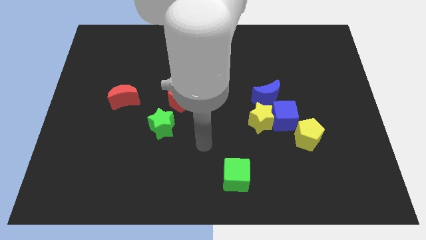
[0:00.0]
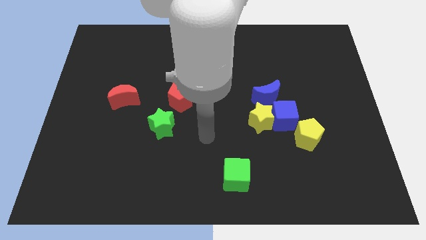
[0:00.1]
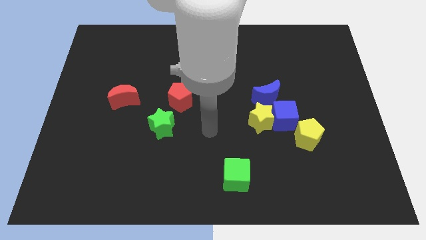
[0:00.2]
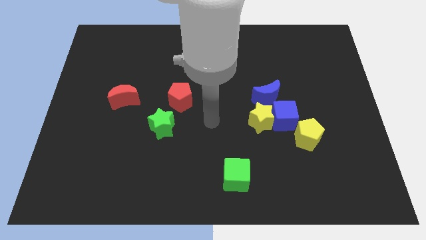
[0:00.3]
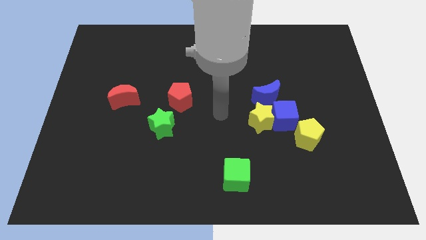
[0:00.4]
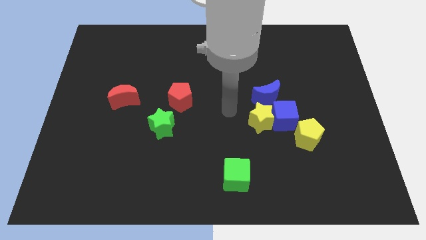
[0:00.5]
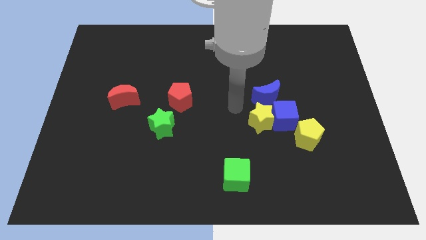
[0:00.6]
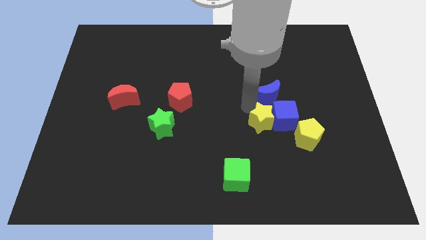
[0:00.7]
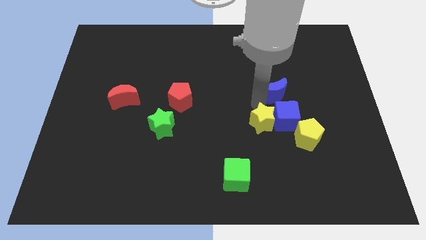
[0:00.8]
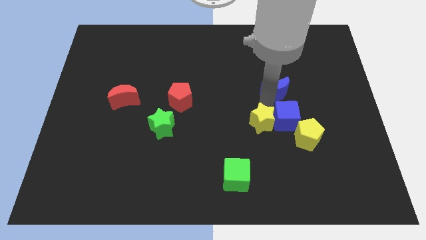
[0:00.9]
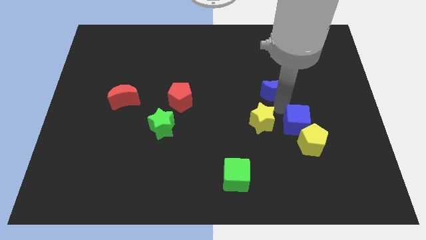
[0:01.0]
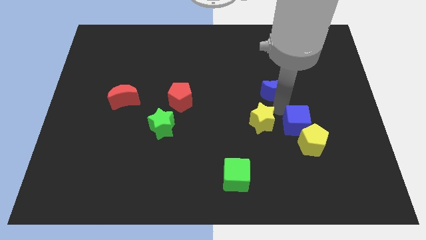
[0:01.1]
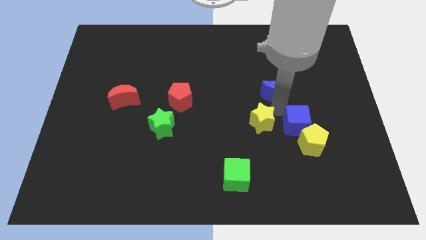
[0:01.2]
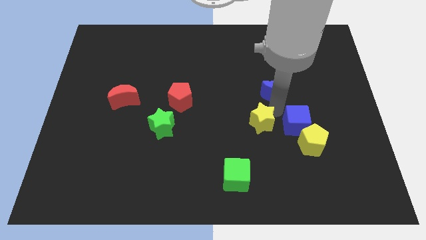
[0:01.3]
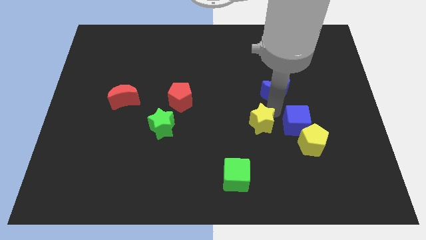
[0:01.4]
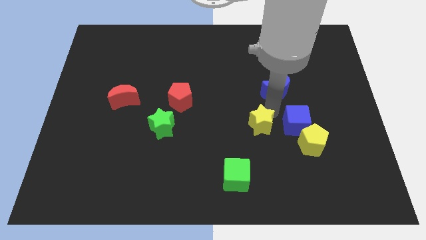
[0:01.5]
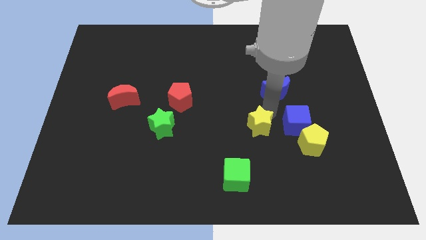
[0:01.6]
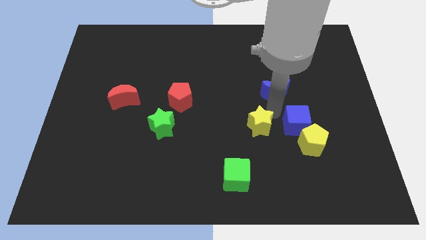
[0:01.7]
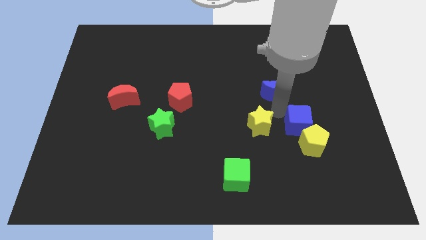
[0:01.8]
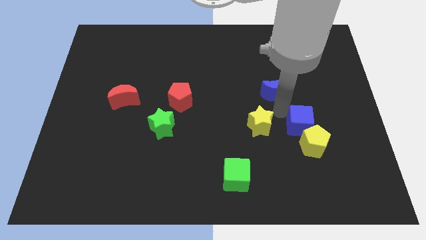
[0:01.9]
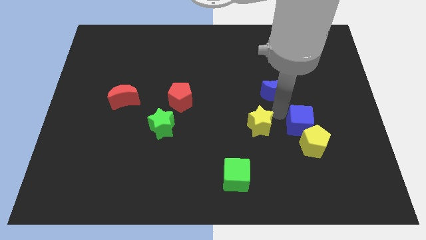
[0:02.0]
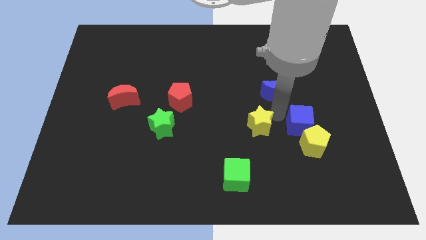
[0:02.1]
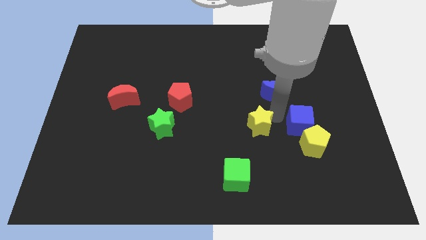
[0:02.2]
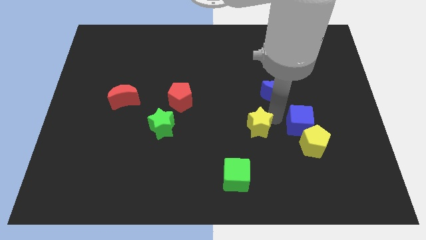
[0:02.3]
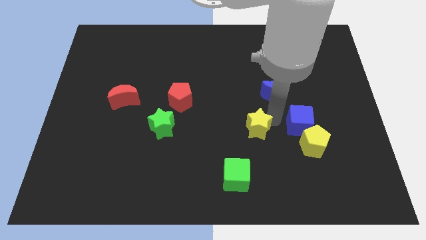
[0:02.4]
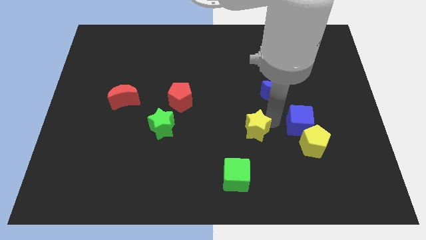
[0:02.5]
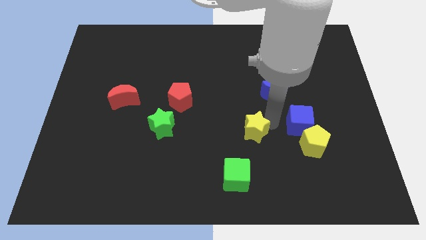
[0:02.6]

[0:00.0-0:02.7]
pull the yellow star apart from the blue cube and blue moon

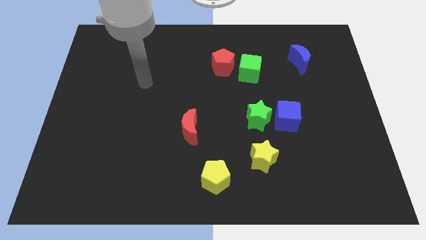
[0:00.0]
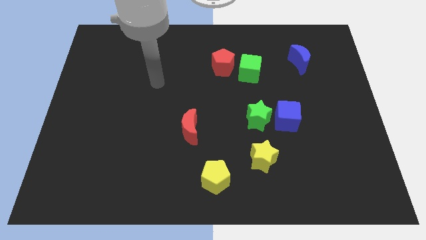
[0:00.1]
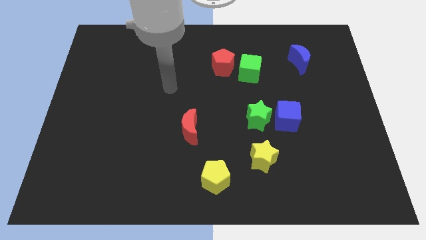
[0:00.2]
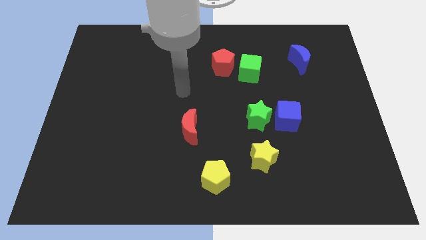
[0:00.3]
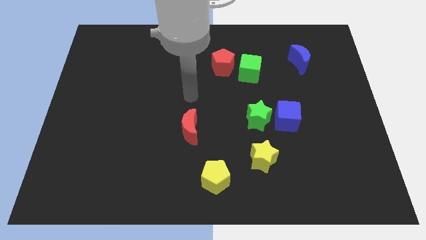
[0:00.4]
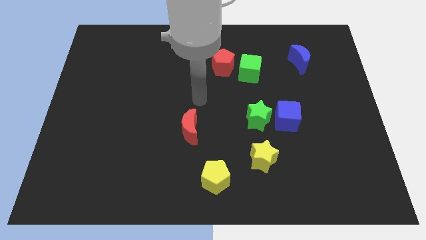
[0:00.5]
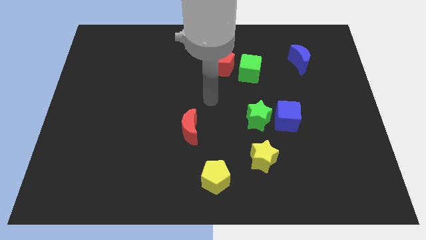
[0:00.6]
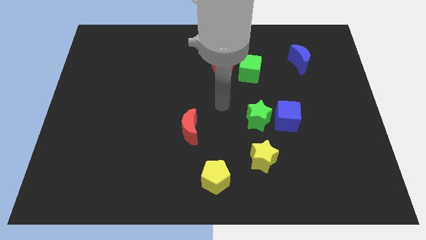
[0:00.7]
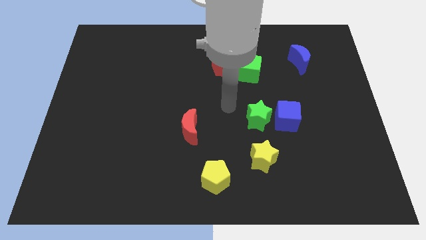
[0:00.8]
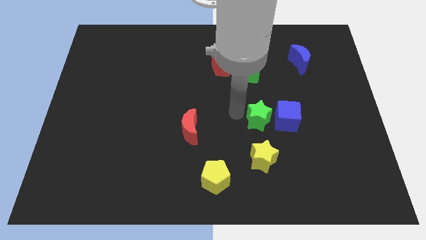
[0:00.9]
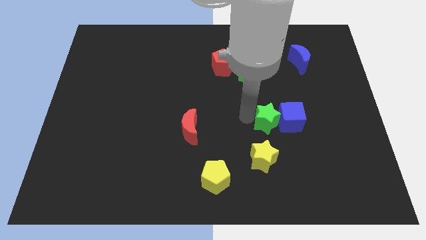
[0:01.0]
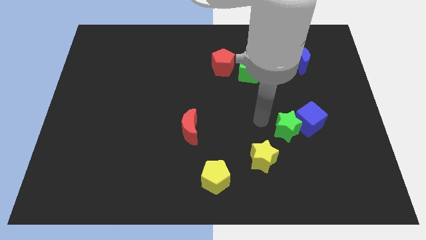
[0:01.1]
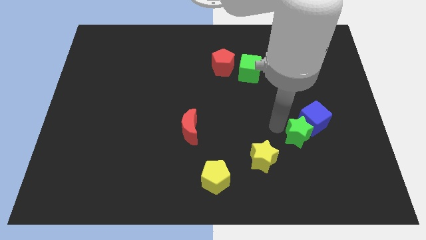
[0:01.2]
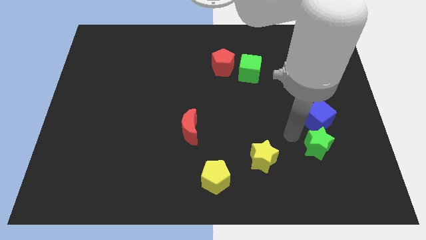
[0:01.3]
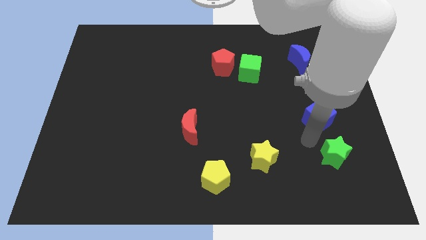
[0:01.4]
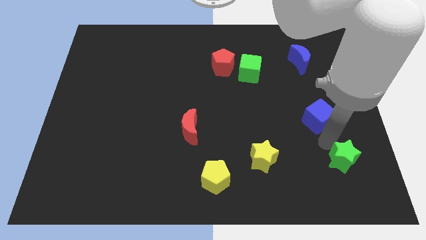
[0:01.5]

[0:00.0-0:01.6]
separate the blue cube from the green star

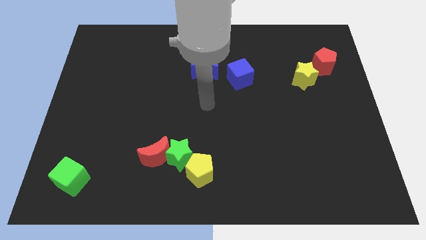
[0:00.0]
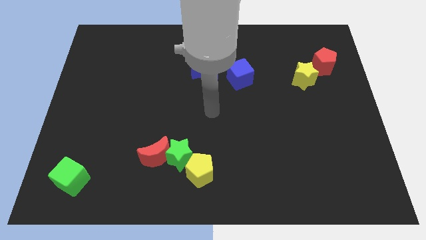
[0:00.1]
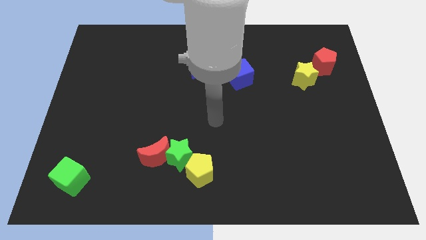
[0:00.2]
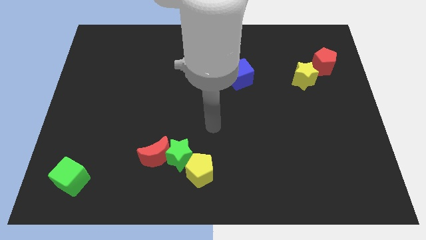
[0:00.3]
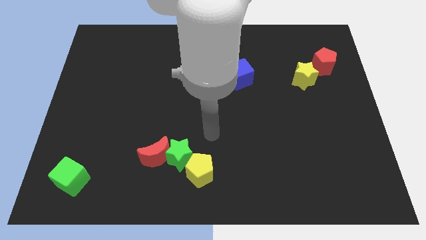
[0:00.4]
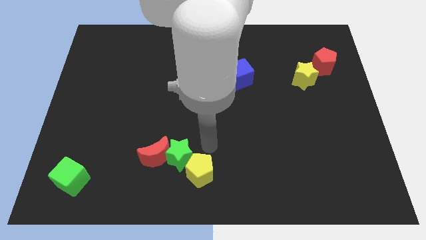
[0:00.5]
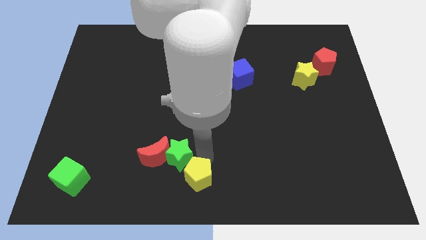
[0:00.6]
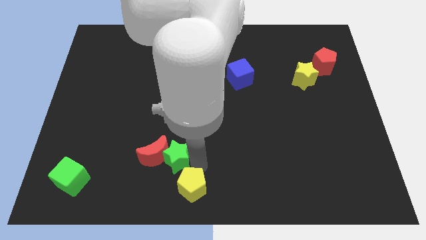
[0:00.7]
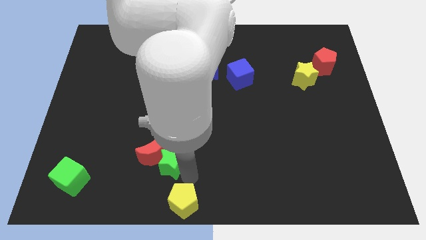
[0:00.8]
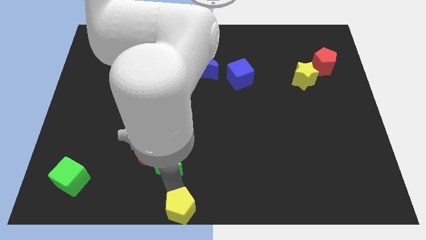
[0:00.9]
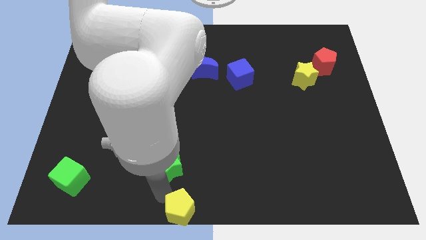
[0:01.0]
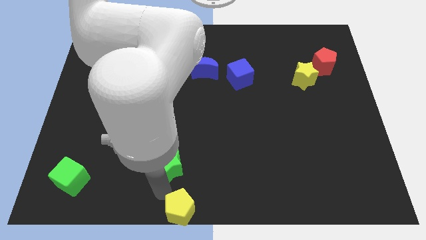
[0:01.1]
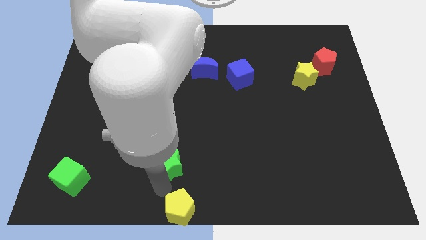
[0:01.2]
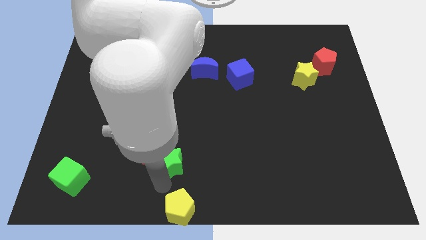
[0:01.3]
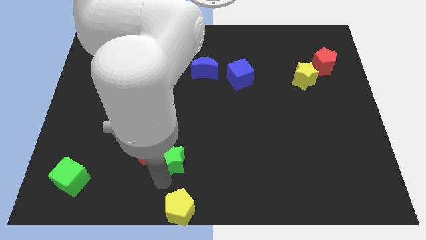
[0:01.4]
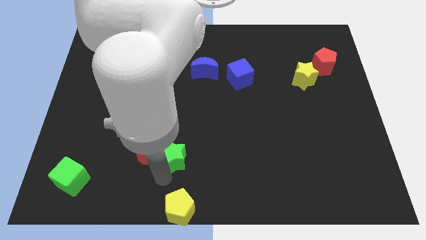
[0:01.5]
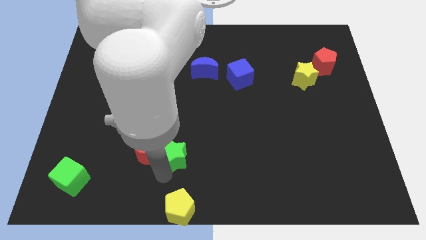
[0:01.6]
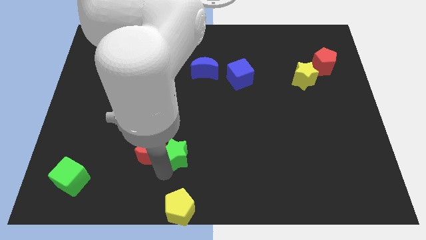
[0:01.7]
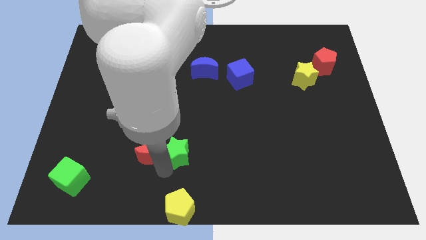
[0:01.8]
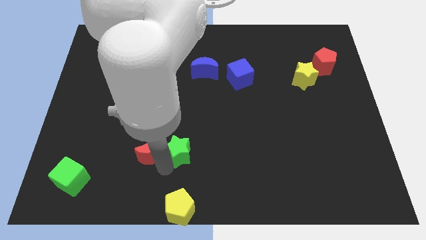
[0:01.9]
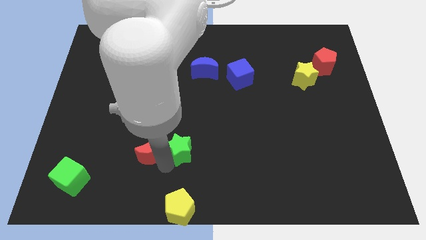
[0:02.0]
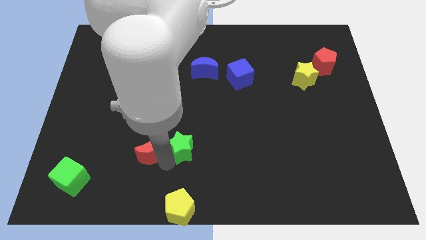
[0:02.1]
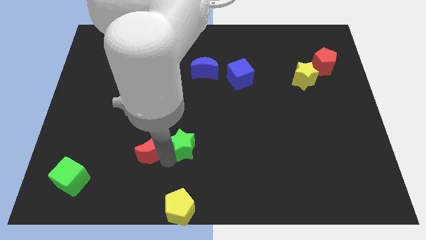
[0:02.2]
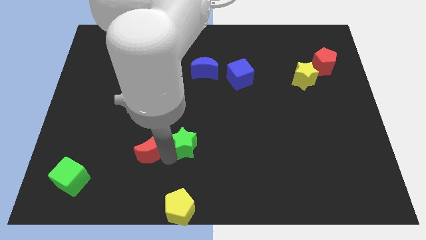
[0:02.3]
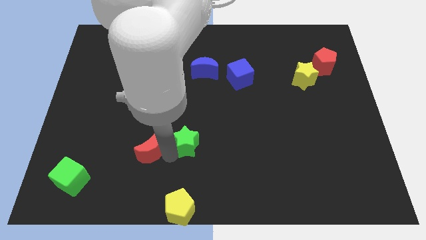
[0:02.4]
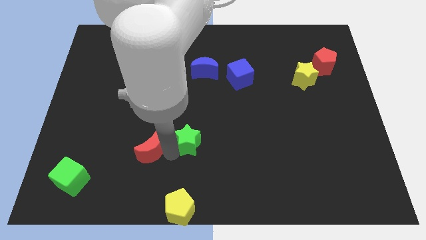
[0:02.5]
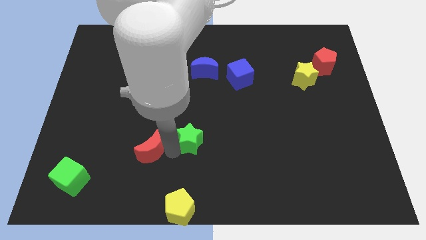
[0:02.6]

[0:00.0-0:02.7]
move the green star away from the red moon and yellow pentagon

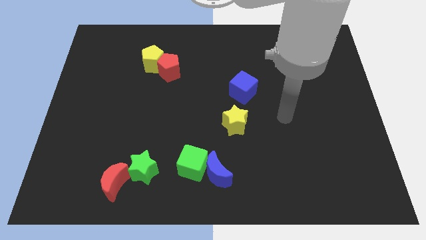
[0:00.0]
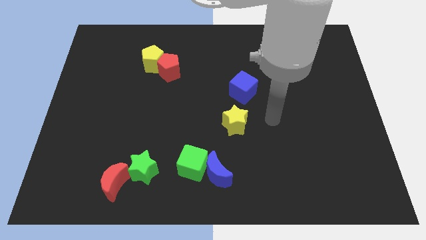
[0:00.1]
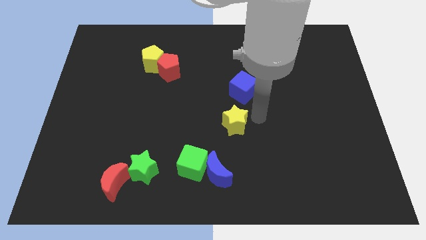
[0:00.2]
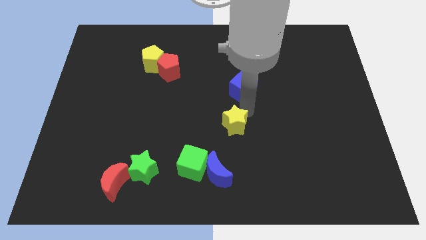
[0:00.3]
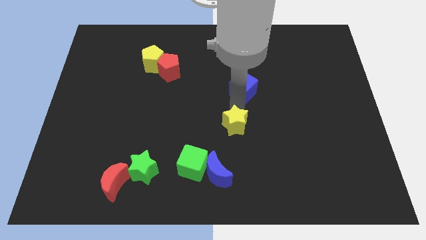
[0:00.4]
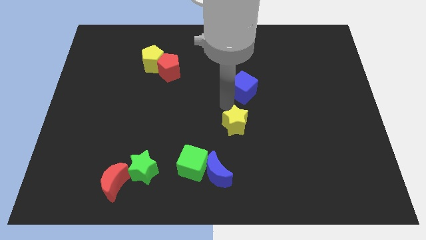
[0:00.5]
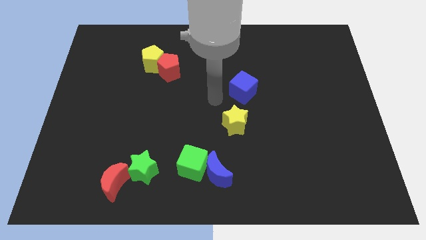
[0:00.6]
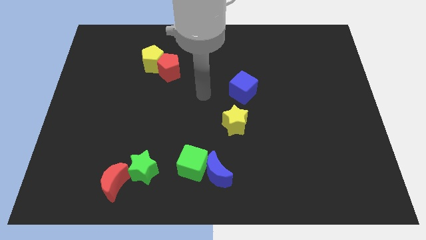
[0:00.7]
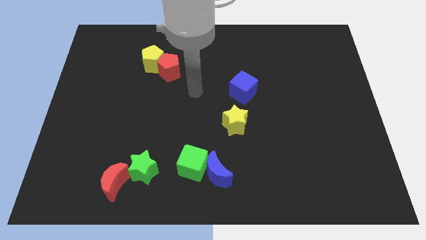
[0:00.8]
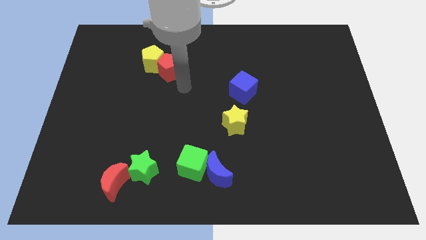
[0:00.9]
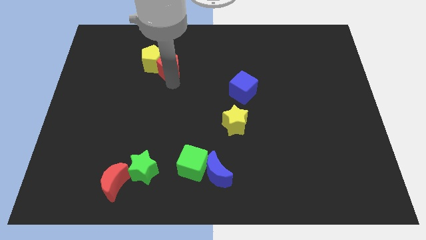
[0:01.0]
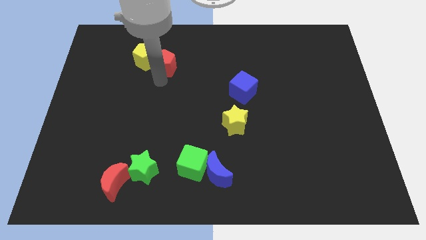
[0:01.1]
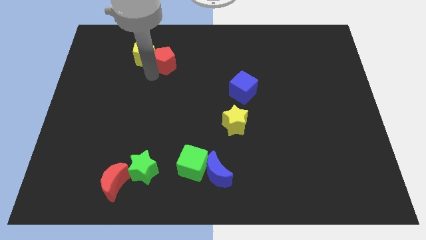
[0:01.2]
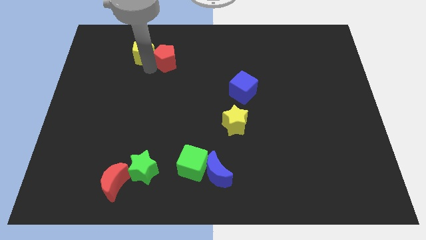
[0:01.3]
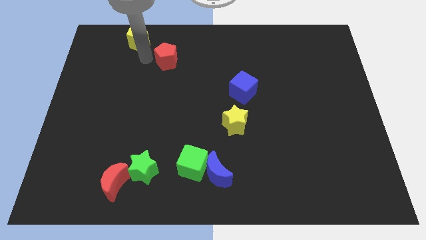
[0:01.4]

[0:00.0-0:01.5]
separate the red pentagon from the yellow pentagon

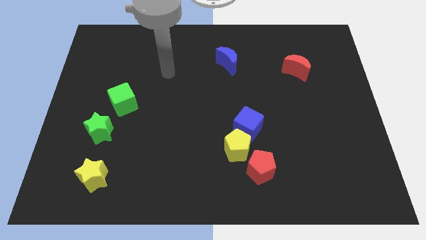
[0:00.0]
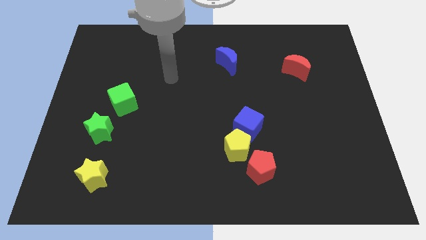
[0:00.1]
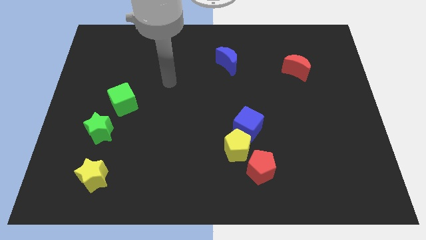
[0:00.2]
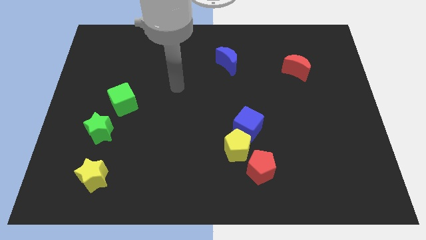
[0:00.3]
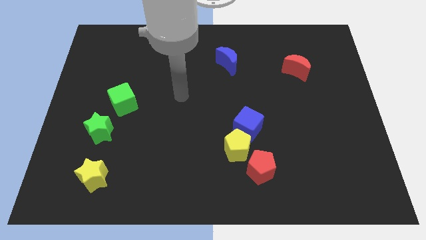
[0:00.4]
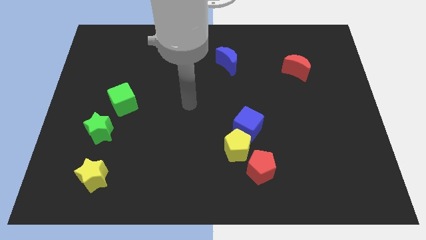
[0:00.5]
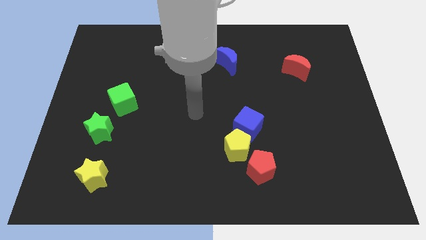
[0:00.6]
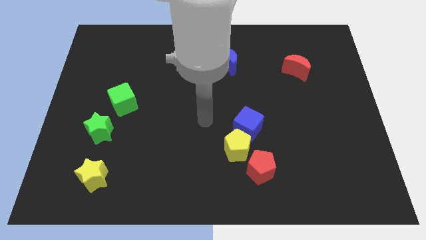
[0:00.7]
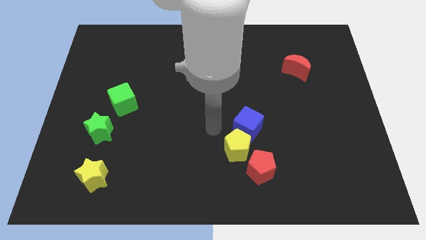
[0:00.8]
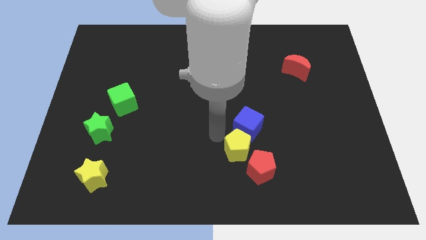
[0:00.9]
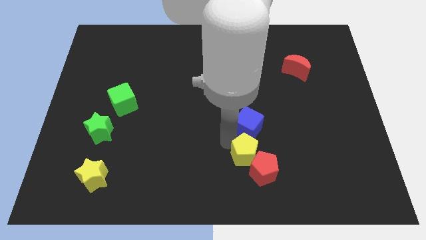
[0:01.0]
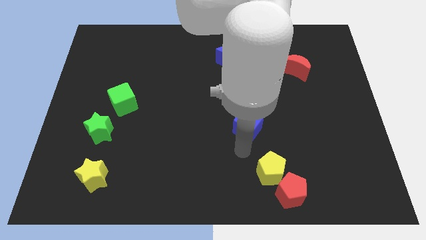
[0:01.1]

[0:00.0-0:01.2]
separate the blue cube from the yellow pentagon
